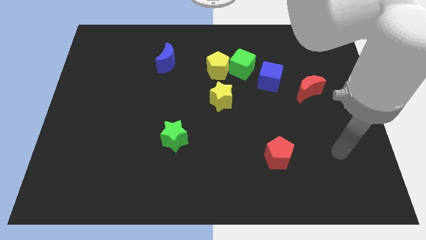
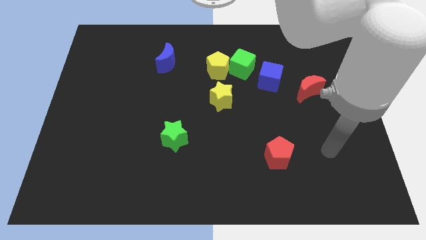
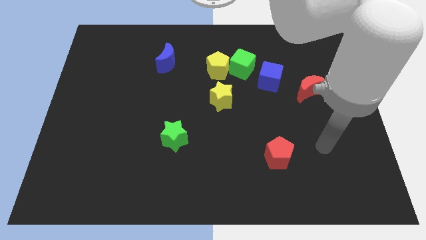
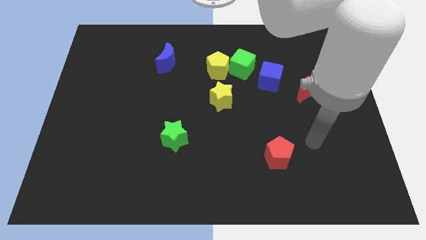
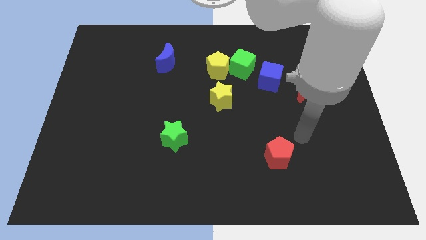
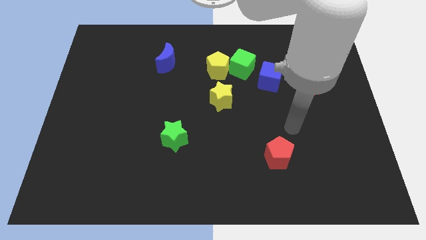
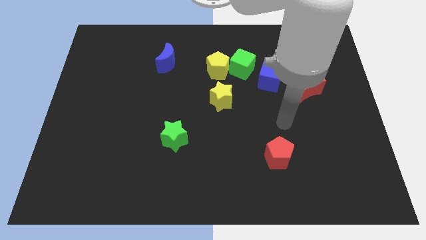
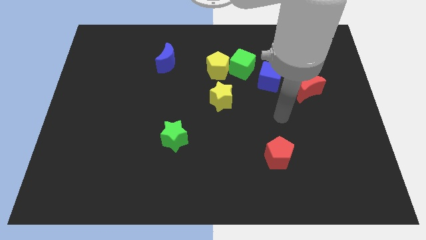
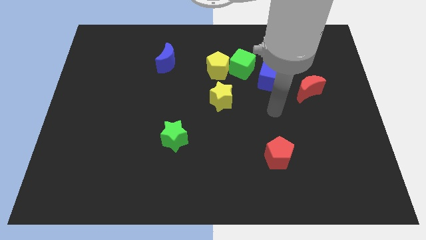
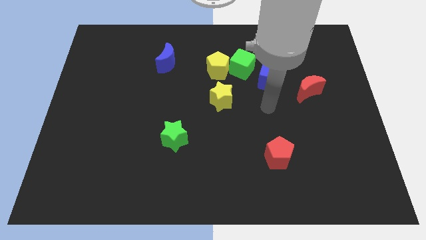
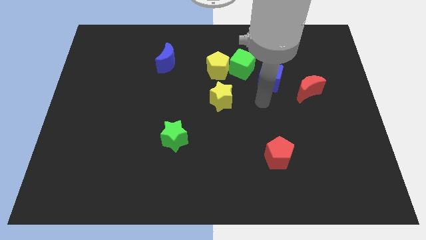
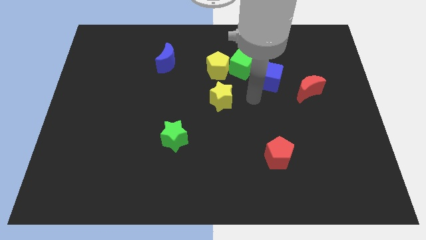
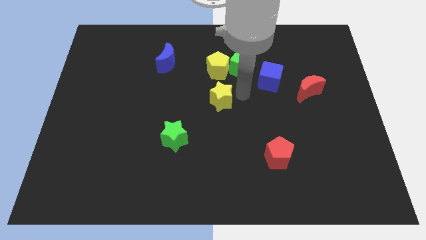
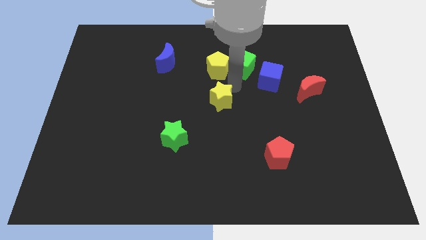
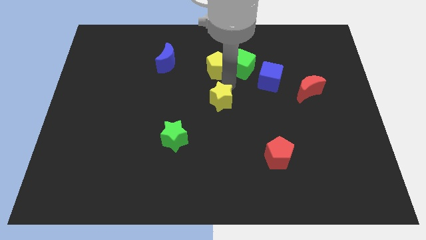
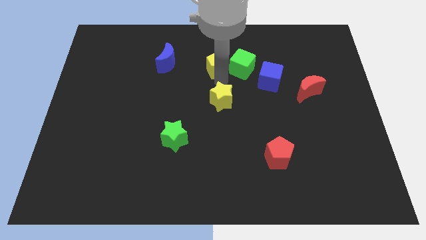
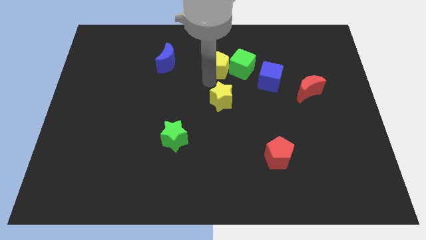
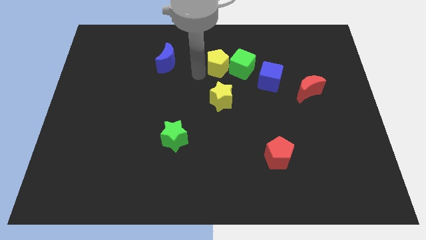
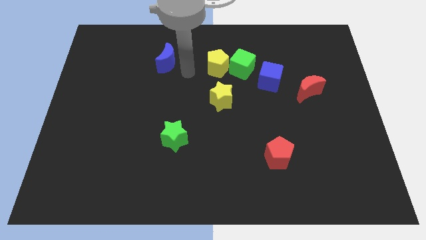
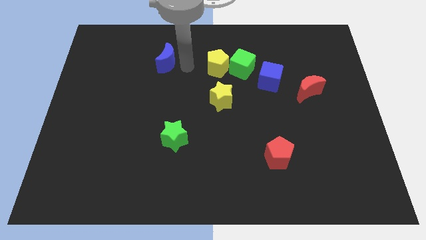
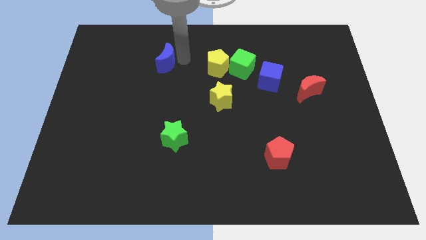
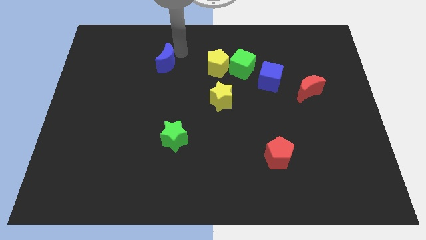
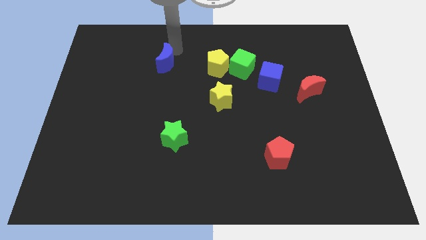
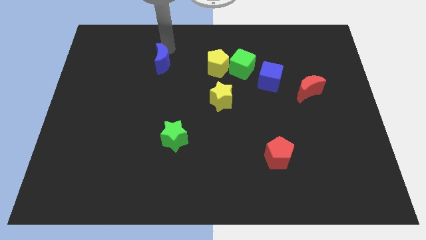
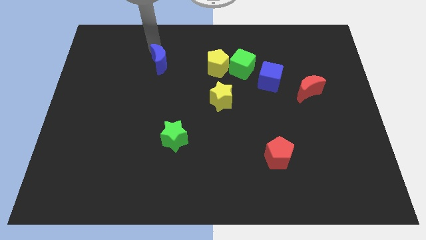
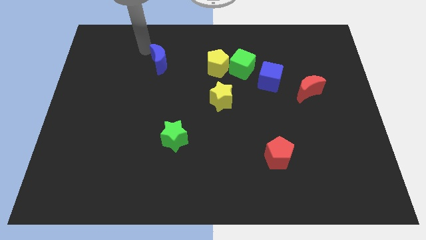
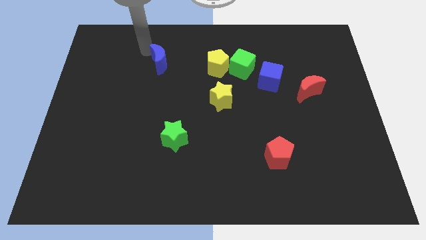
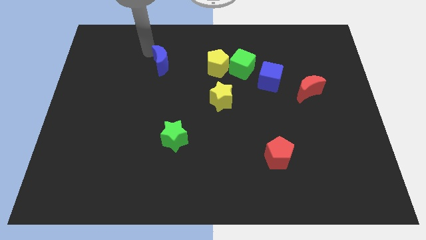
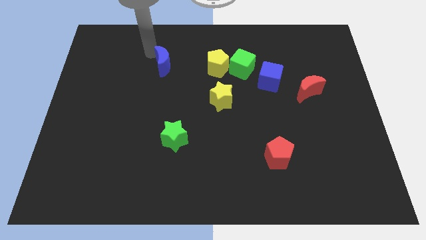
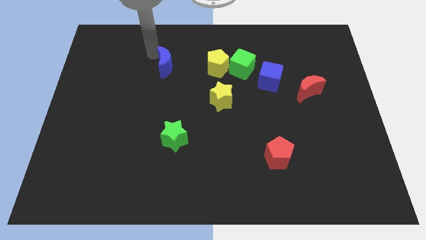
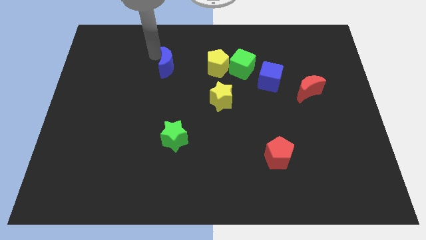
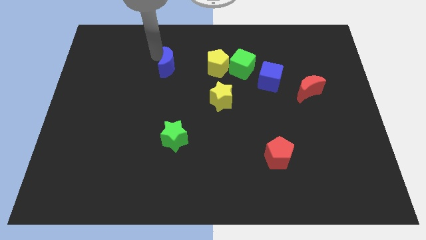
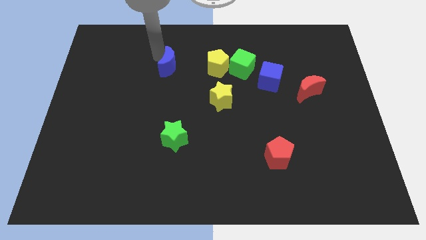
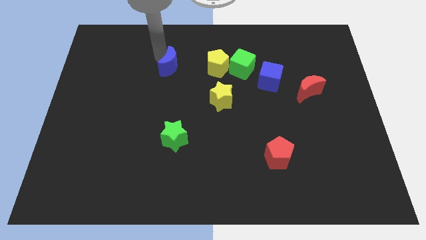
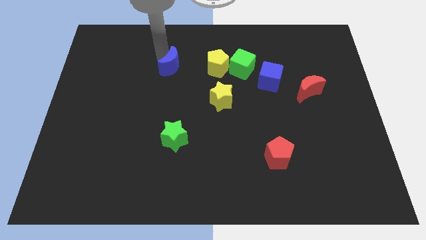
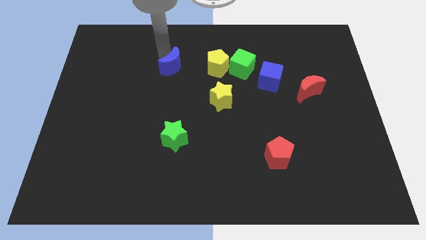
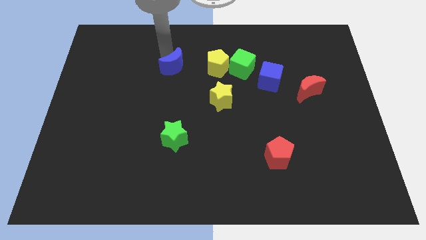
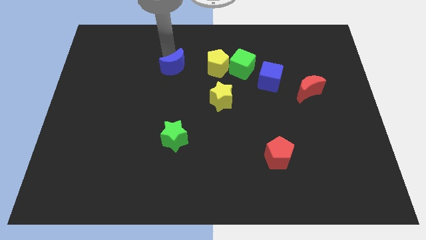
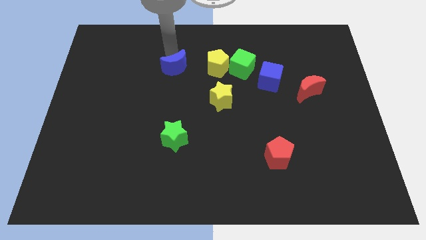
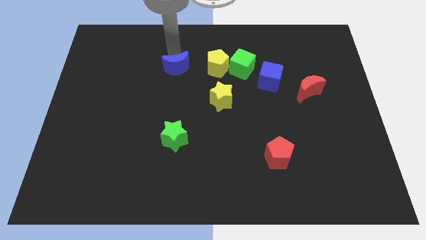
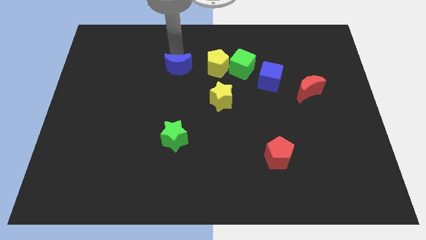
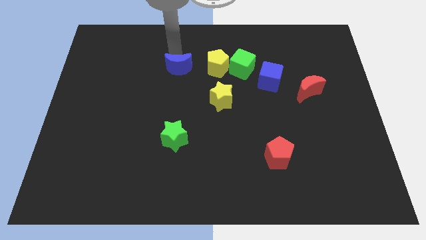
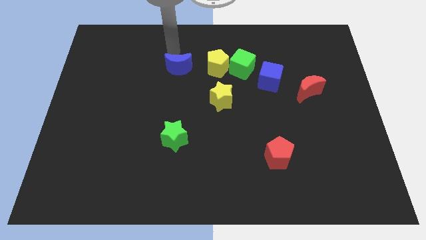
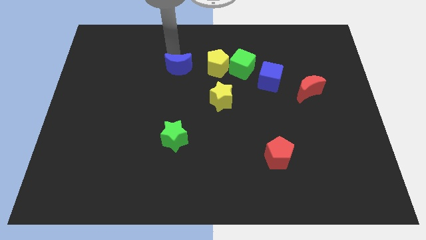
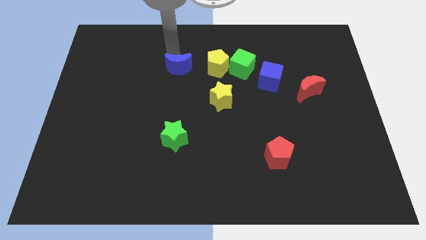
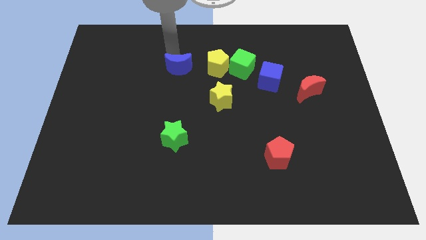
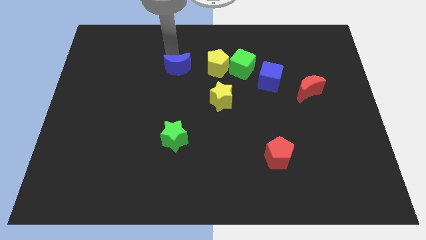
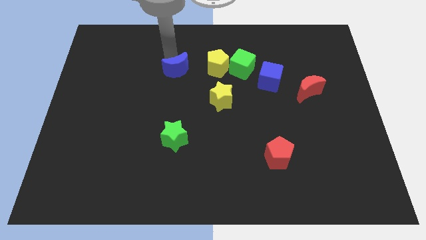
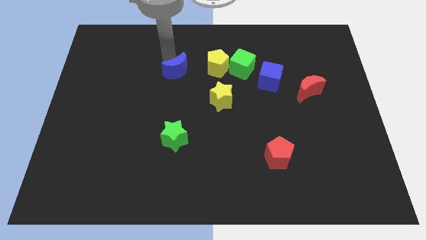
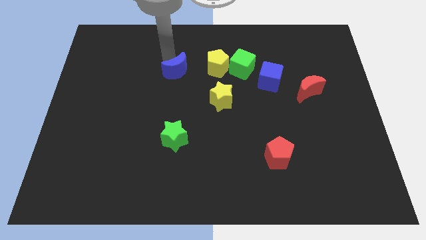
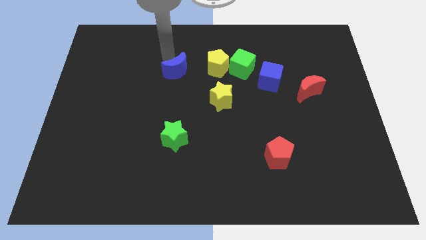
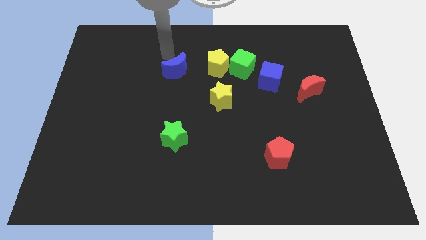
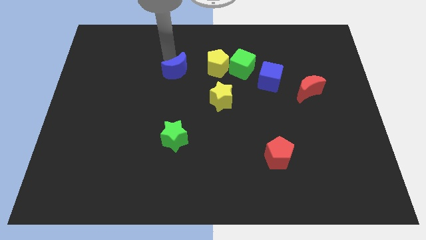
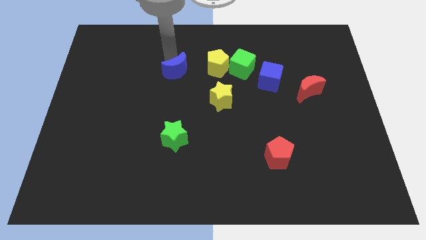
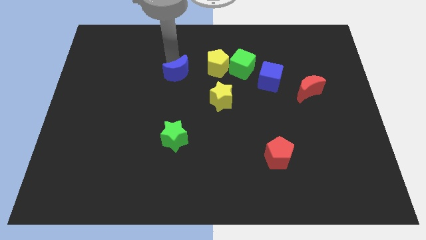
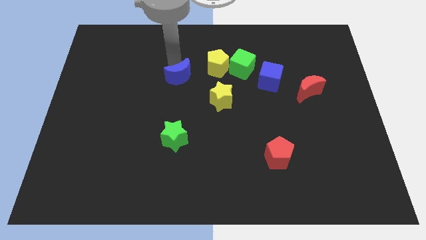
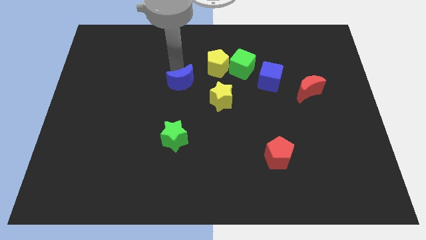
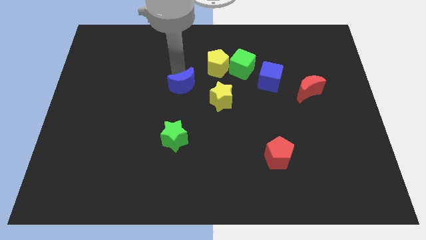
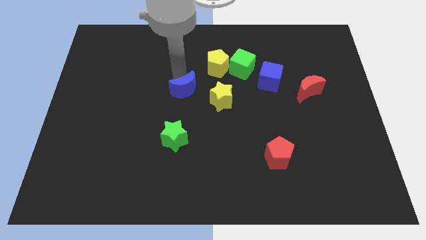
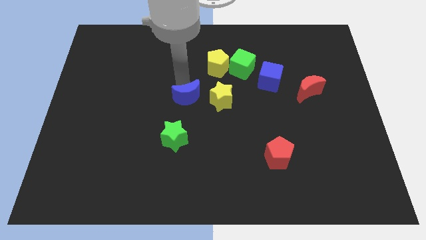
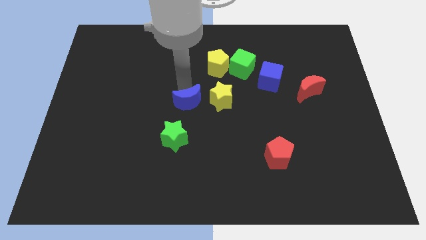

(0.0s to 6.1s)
slide the blue moon to the bottom left side of the yellow star
